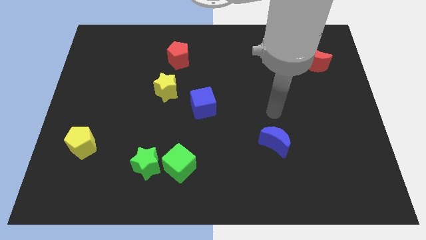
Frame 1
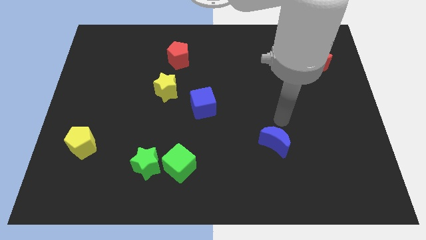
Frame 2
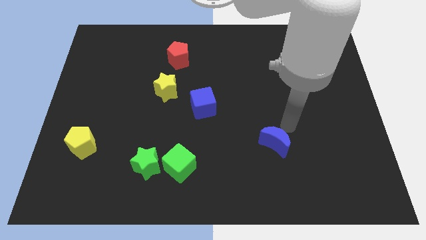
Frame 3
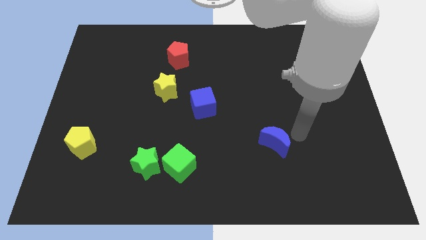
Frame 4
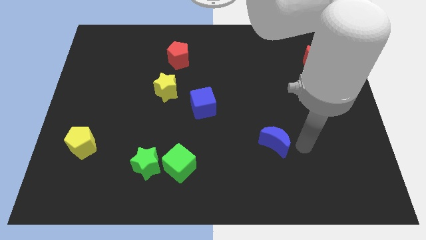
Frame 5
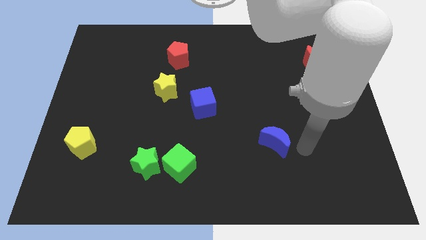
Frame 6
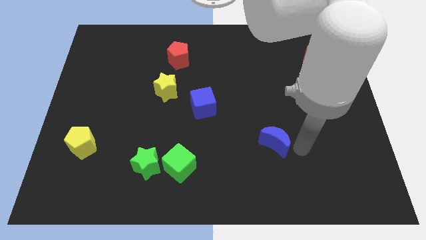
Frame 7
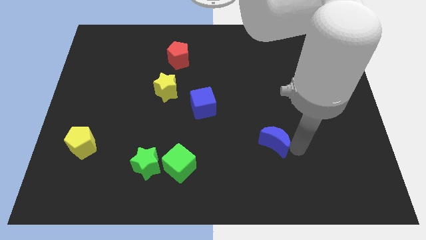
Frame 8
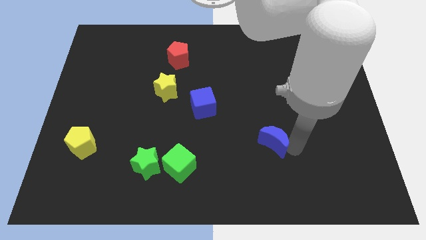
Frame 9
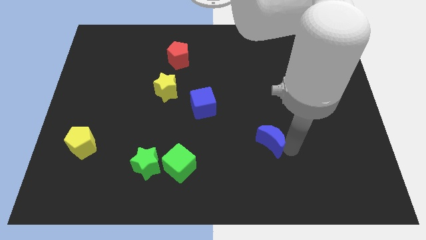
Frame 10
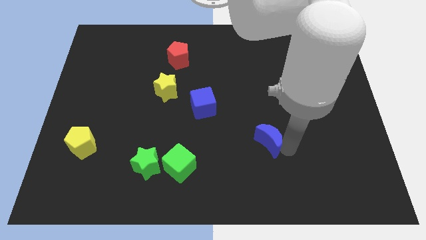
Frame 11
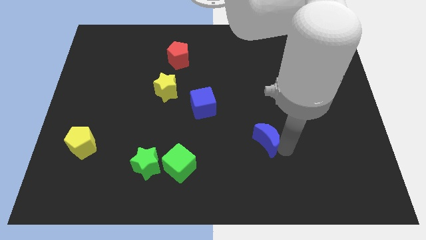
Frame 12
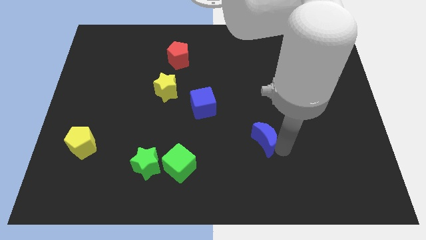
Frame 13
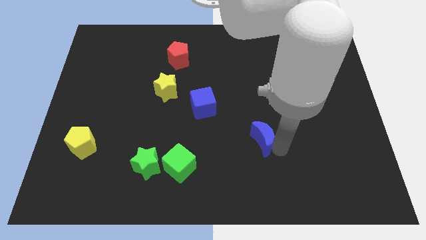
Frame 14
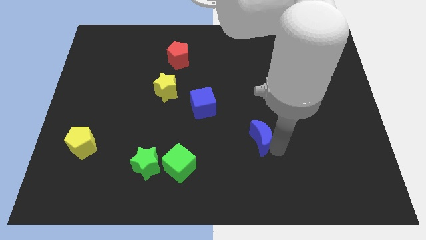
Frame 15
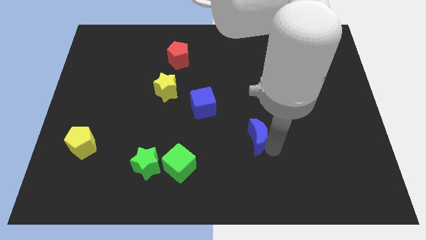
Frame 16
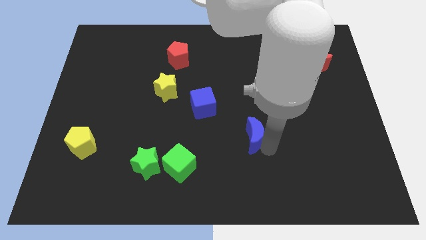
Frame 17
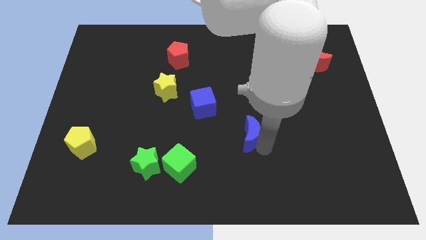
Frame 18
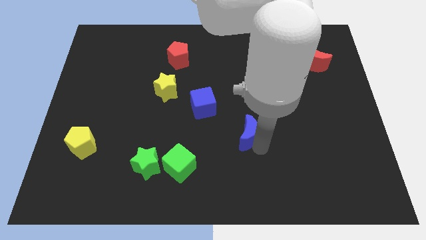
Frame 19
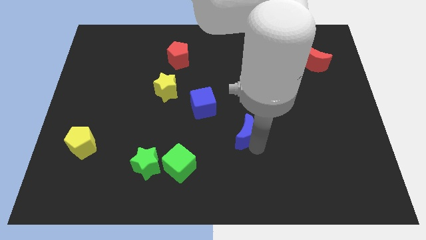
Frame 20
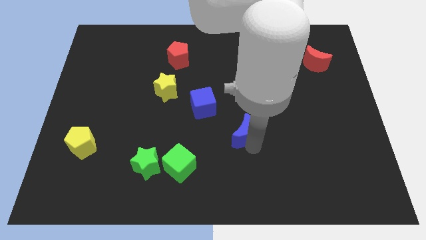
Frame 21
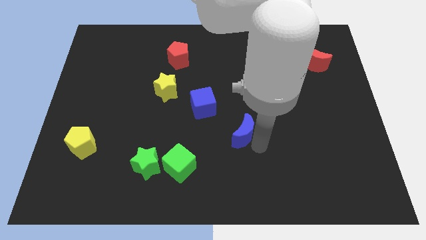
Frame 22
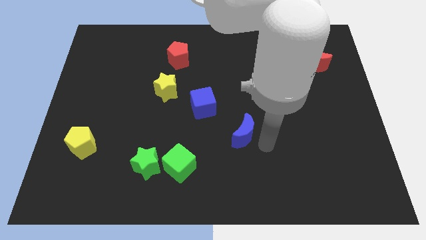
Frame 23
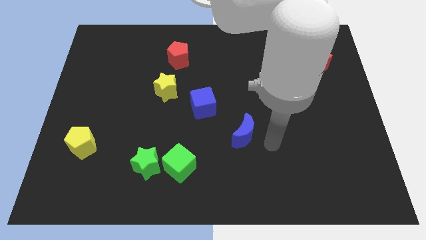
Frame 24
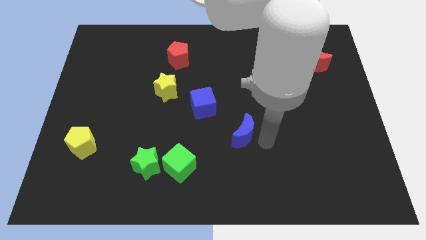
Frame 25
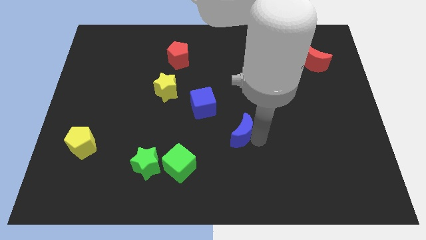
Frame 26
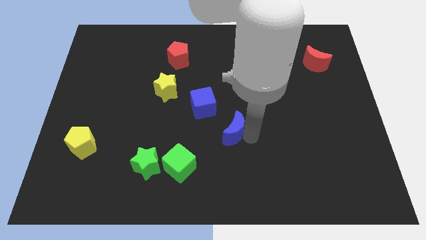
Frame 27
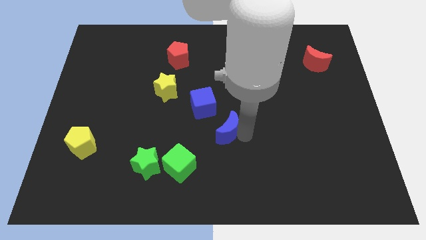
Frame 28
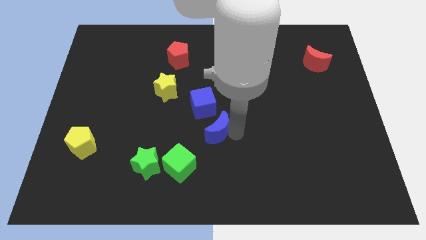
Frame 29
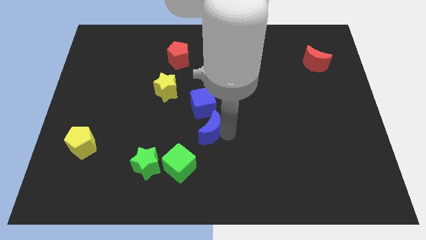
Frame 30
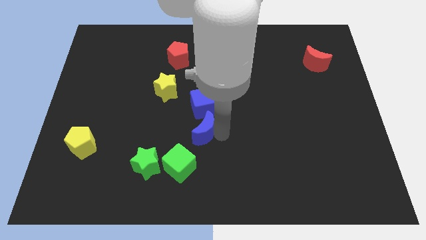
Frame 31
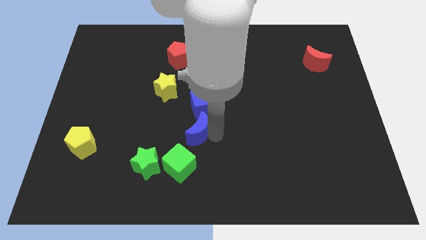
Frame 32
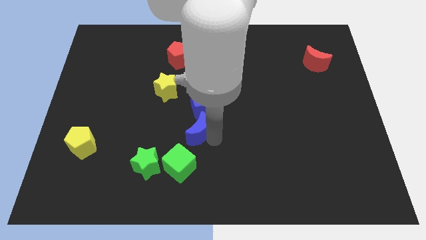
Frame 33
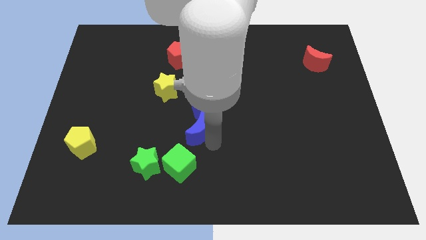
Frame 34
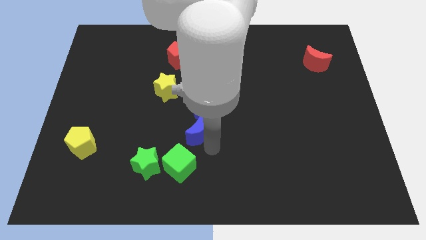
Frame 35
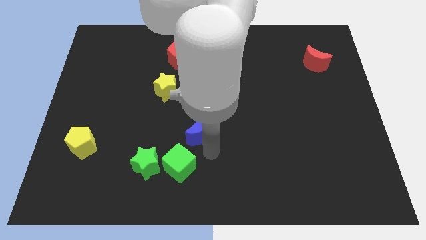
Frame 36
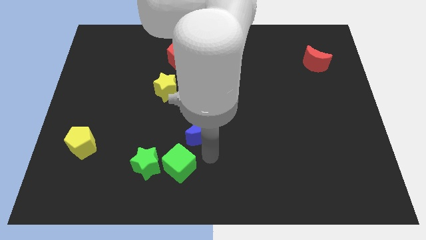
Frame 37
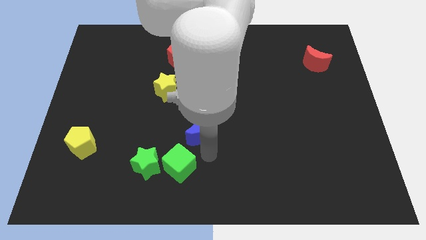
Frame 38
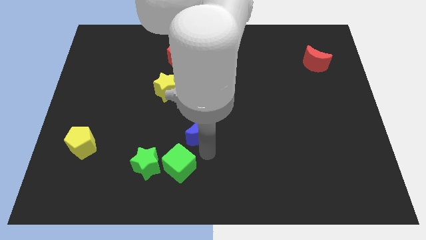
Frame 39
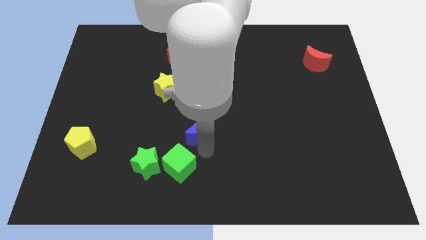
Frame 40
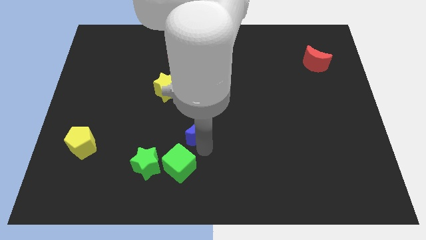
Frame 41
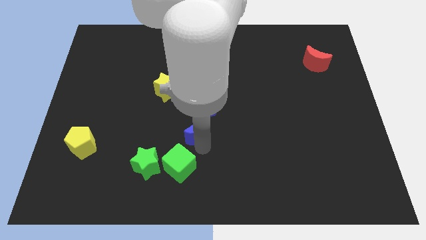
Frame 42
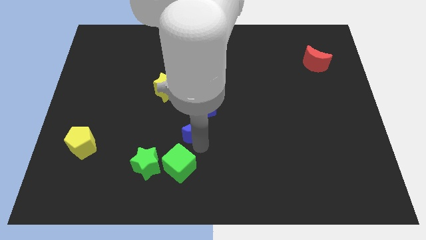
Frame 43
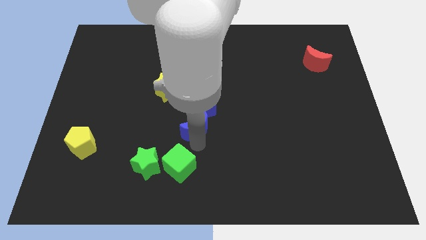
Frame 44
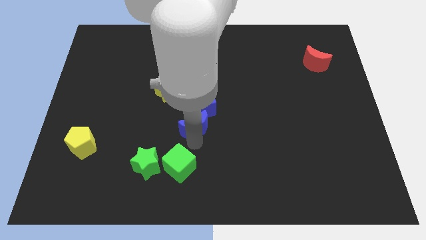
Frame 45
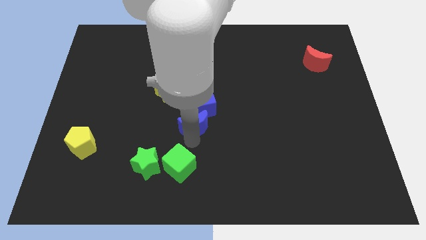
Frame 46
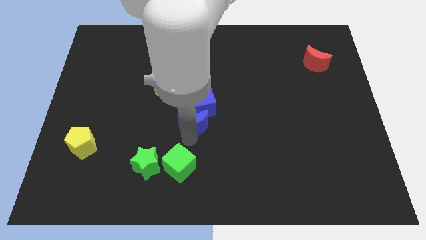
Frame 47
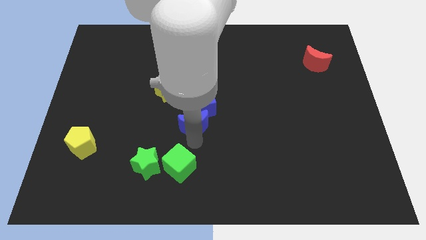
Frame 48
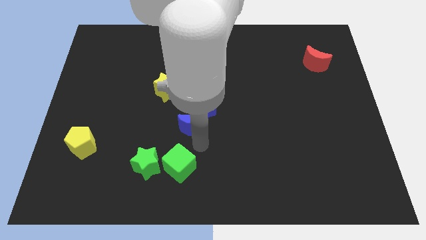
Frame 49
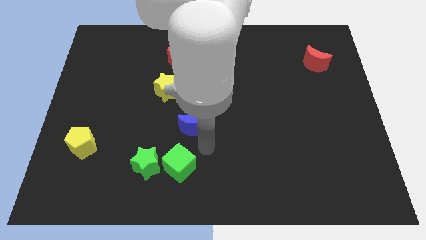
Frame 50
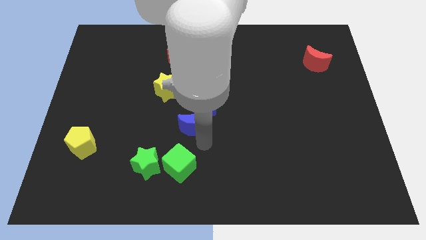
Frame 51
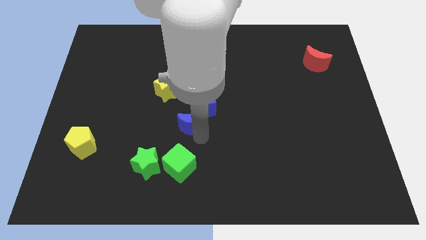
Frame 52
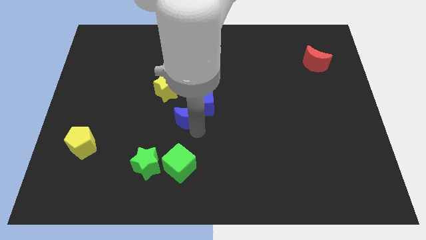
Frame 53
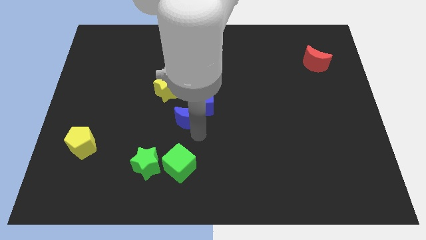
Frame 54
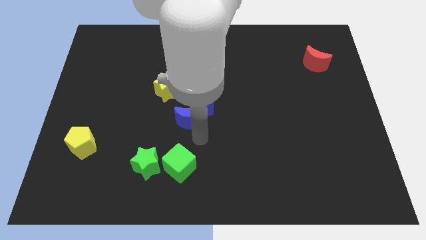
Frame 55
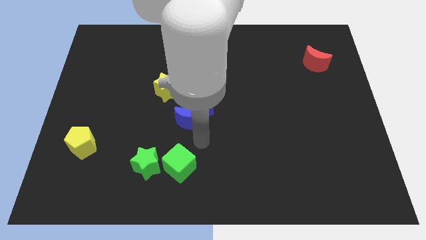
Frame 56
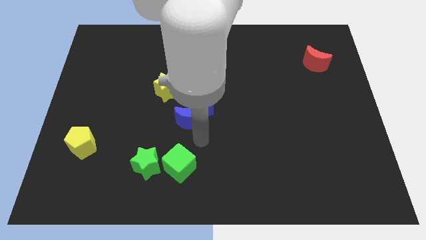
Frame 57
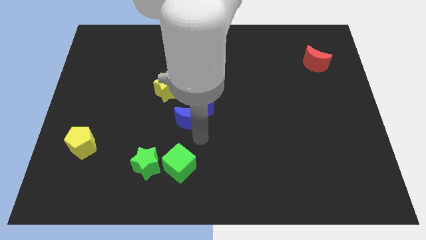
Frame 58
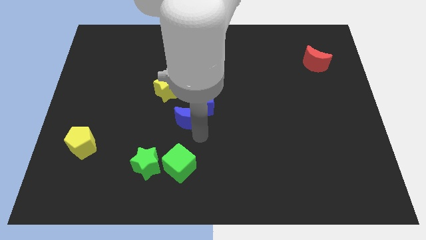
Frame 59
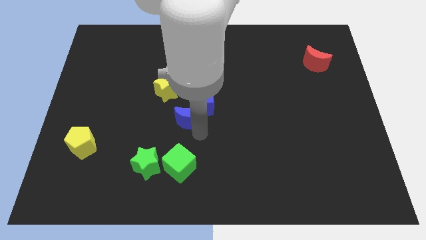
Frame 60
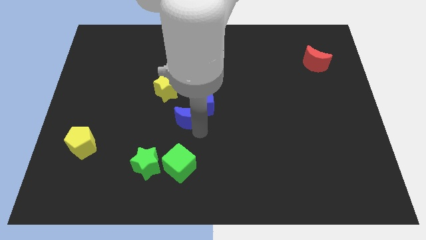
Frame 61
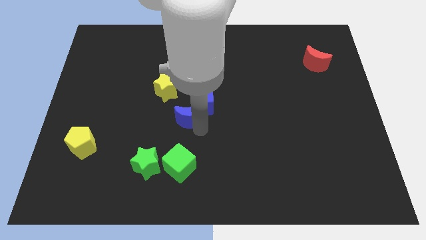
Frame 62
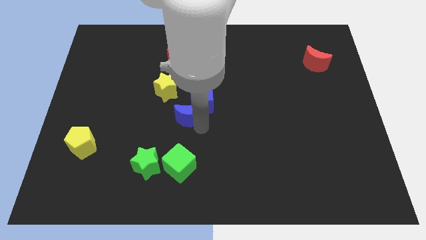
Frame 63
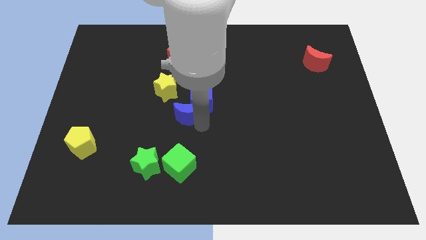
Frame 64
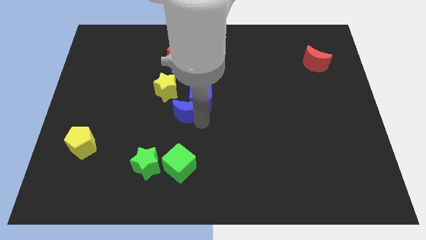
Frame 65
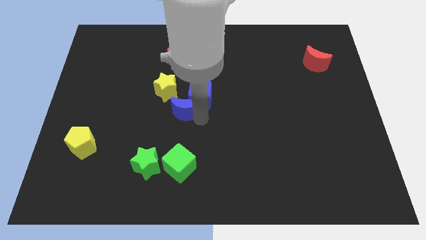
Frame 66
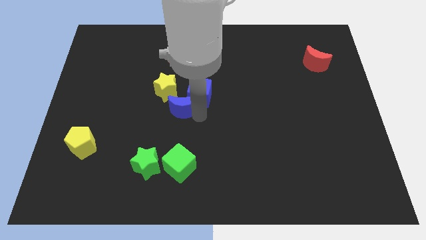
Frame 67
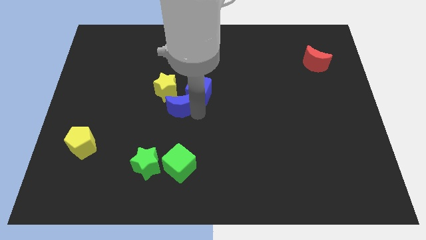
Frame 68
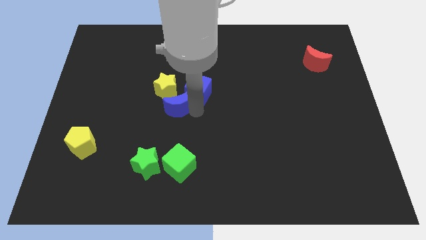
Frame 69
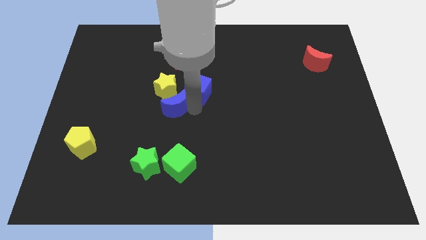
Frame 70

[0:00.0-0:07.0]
slide the blue moon close to the yellow star

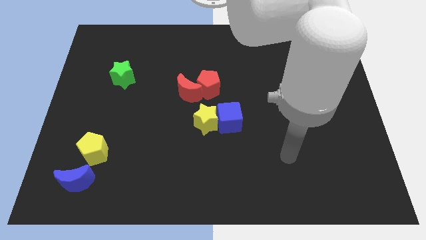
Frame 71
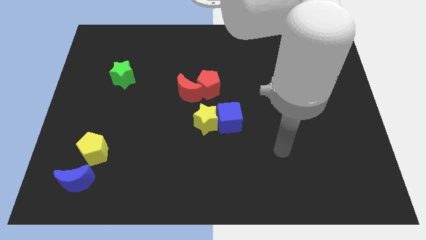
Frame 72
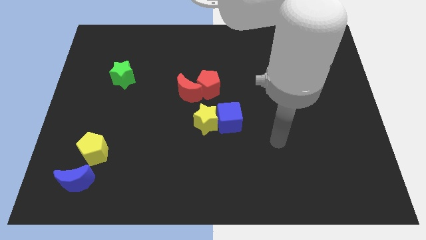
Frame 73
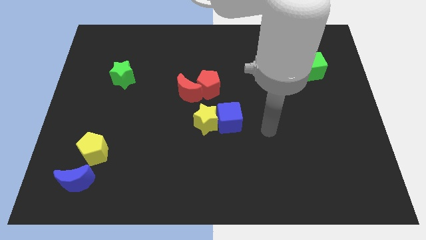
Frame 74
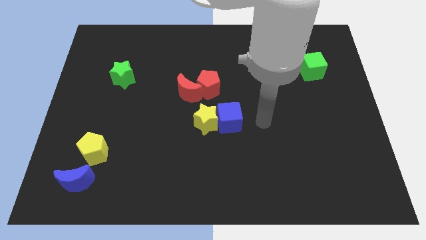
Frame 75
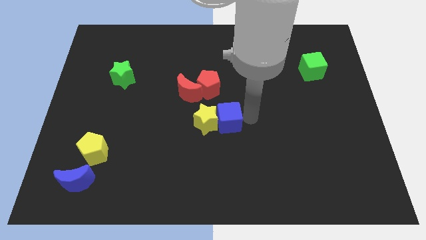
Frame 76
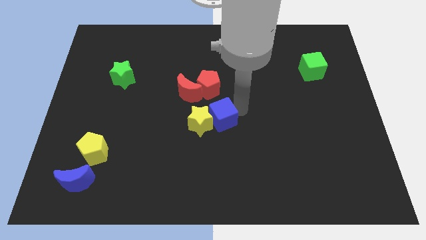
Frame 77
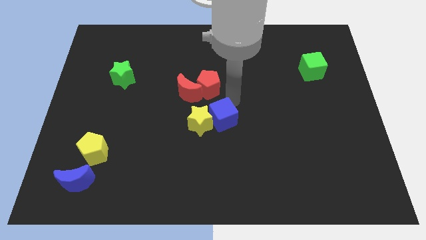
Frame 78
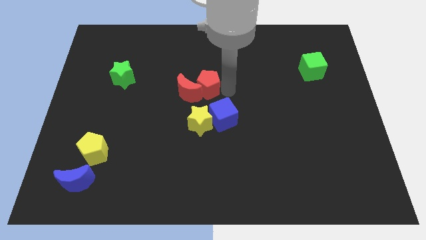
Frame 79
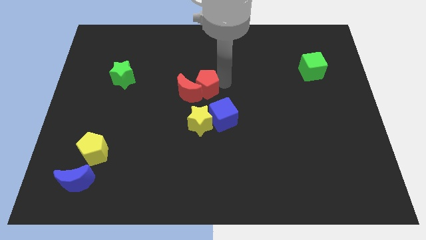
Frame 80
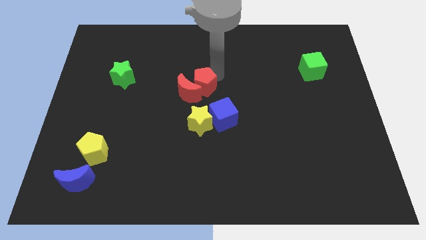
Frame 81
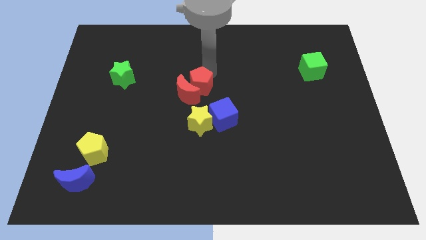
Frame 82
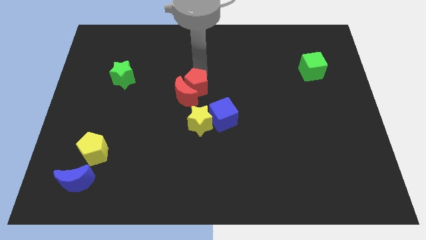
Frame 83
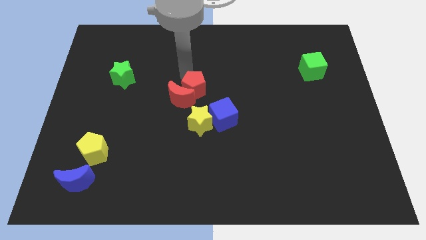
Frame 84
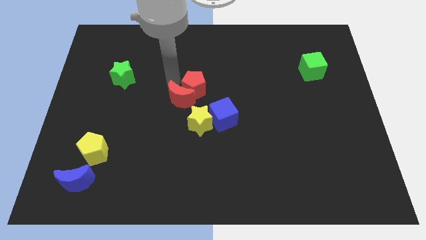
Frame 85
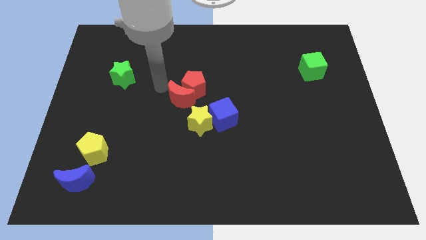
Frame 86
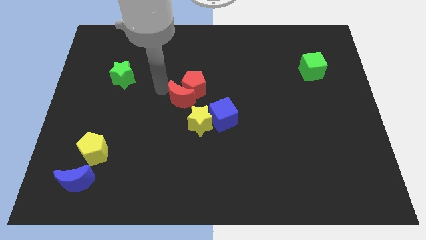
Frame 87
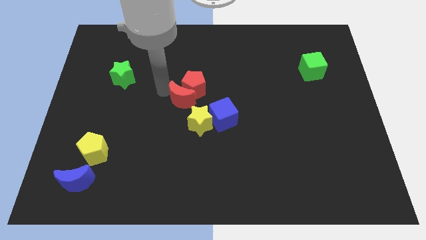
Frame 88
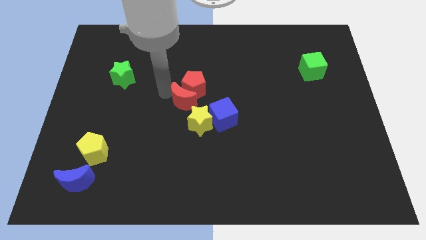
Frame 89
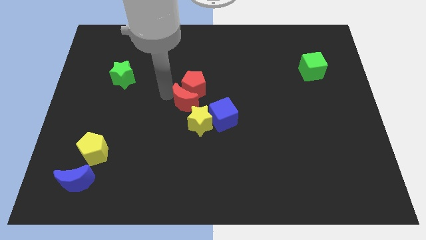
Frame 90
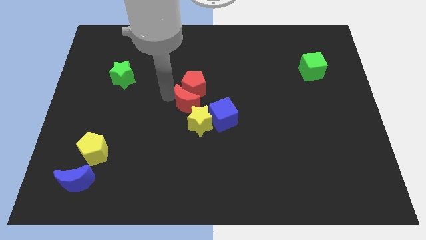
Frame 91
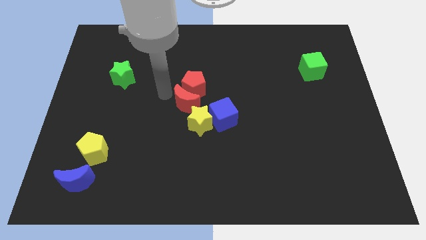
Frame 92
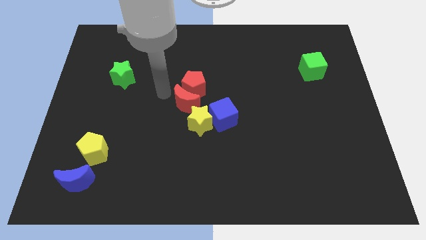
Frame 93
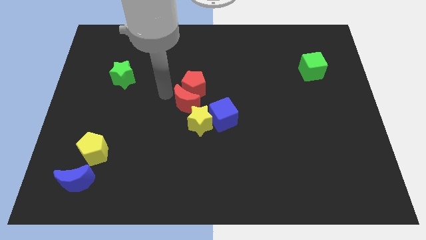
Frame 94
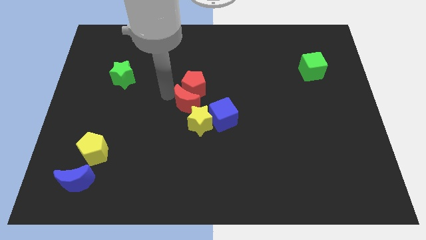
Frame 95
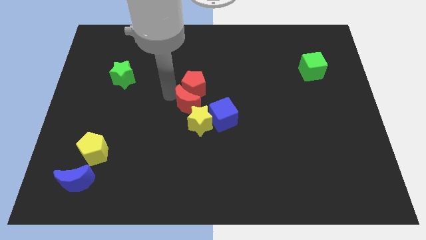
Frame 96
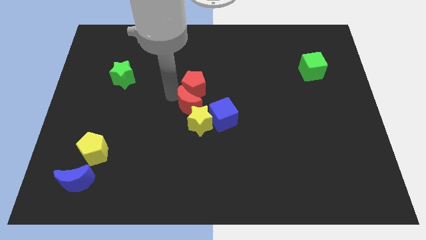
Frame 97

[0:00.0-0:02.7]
push the red moon close to the yellow star
